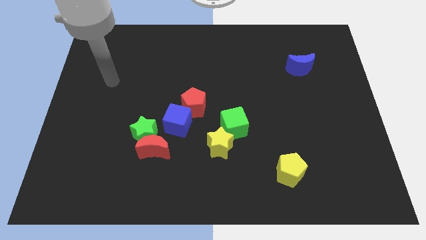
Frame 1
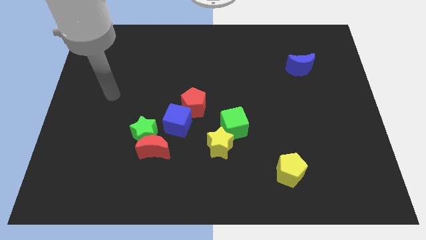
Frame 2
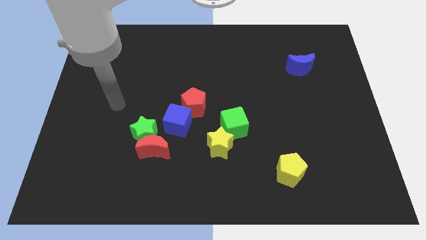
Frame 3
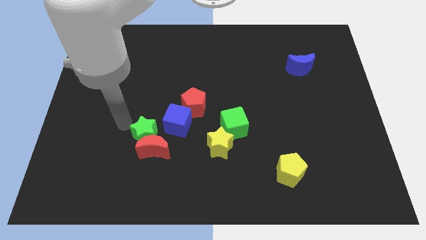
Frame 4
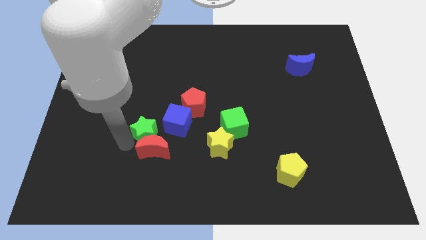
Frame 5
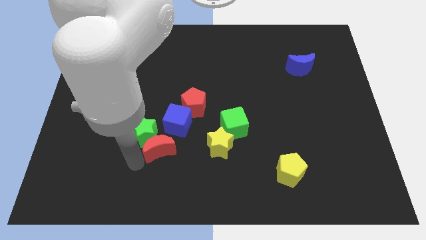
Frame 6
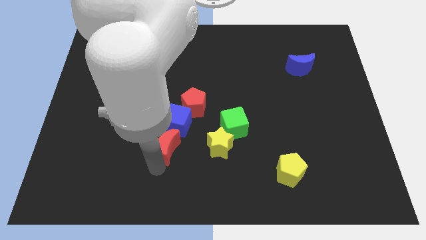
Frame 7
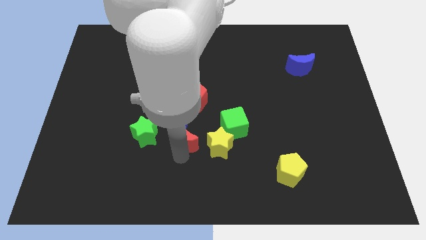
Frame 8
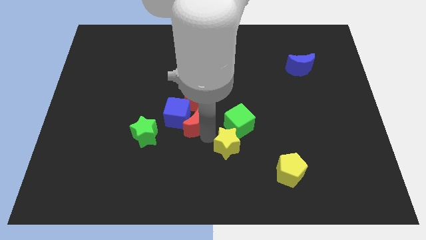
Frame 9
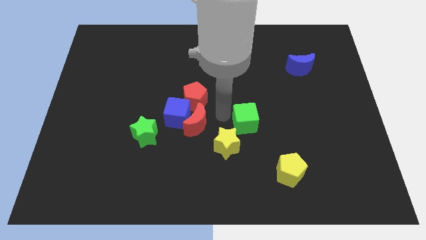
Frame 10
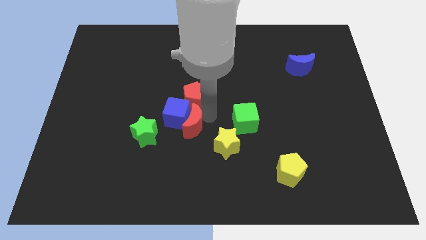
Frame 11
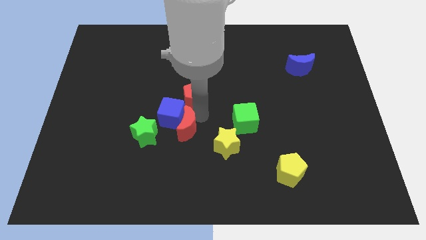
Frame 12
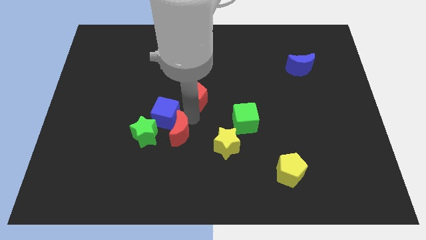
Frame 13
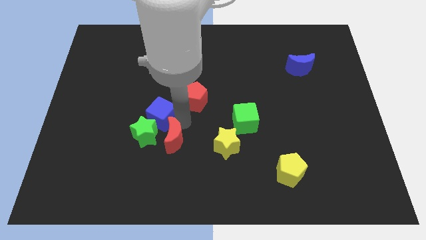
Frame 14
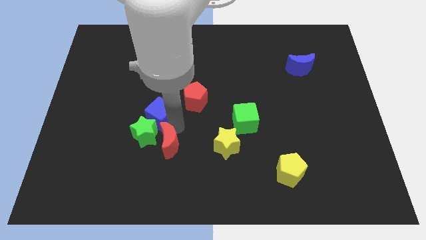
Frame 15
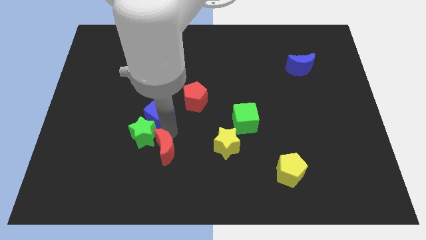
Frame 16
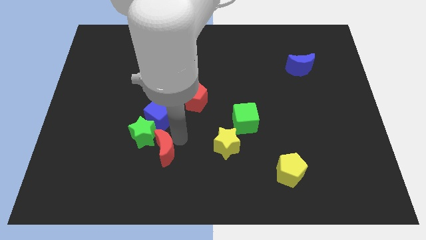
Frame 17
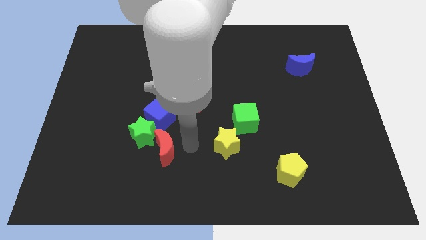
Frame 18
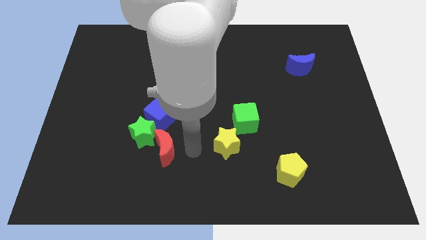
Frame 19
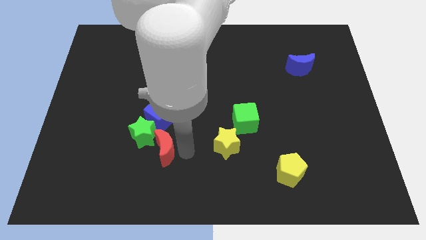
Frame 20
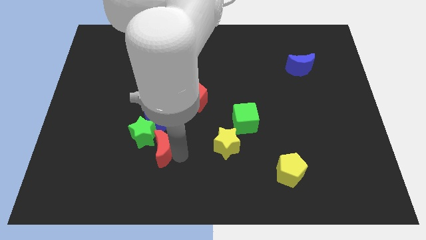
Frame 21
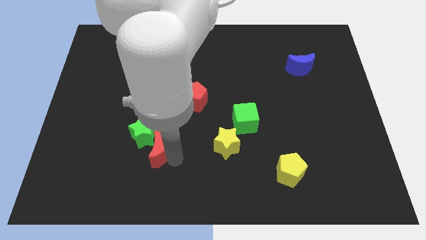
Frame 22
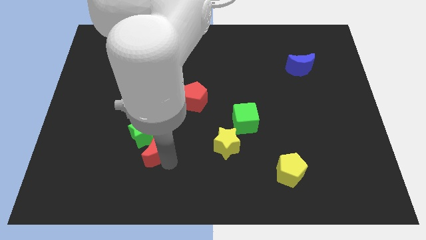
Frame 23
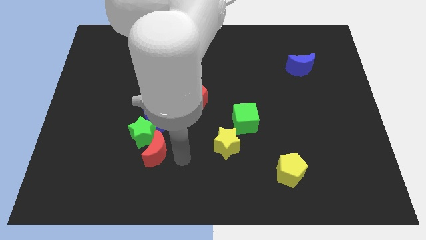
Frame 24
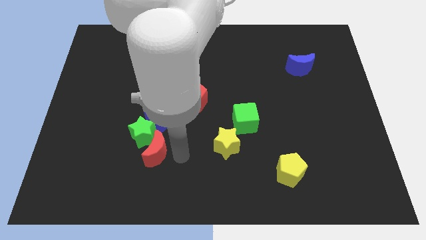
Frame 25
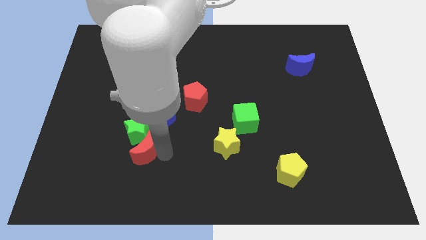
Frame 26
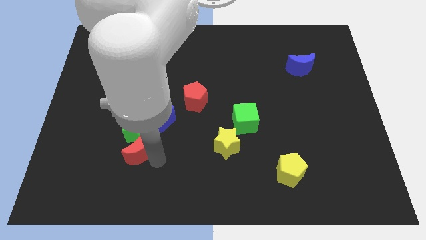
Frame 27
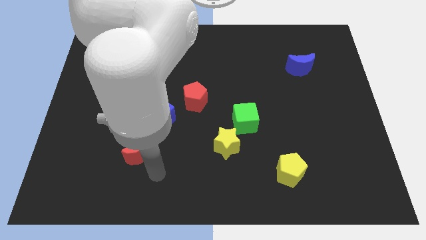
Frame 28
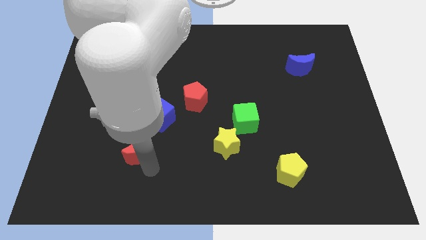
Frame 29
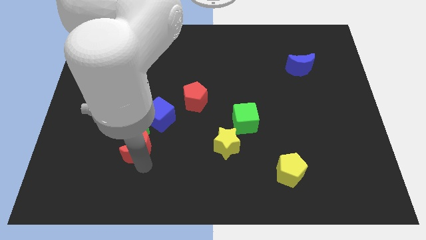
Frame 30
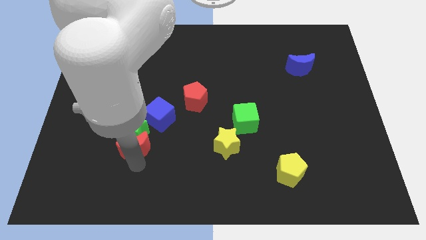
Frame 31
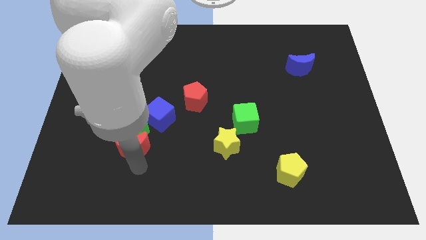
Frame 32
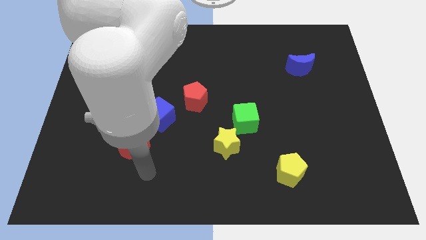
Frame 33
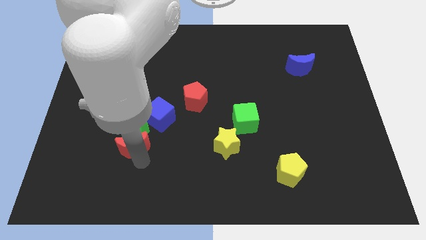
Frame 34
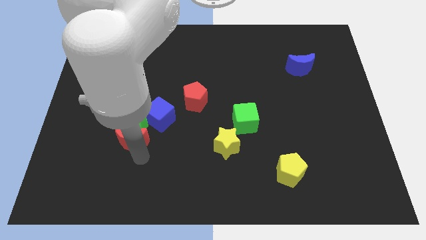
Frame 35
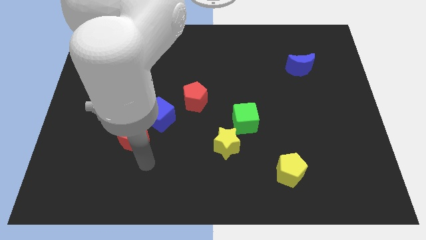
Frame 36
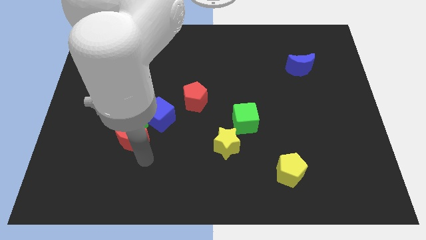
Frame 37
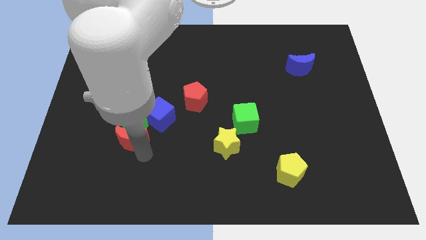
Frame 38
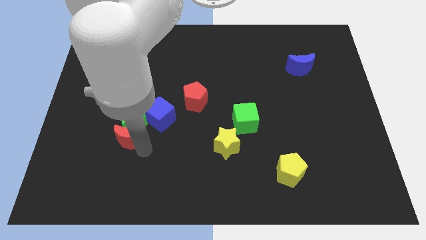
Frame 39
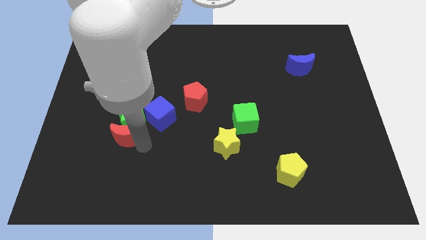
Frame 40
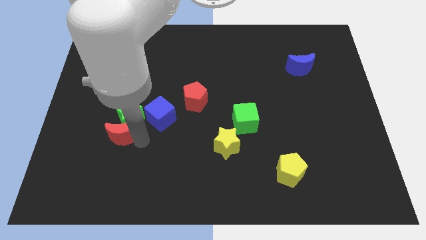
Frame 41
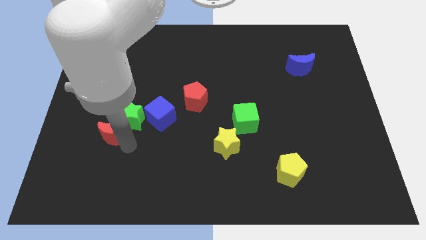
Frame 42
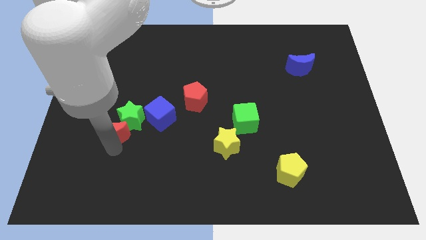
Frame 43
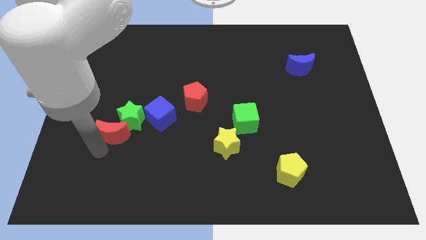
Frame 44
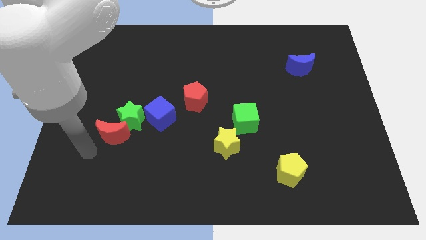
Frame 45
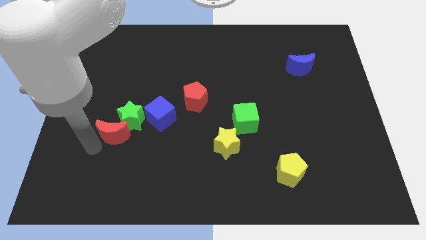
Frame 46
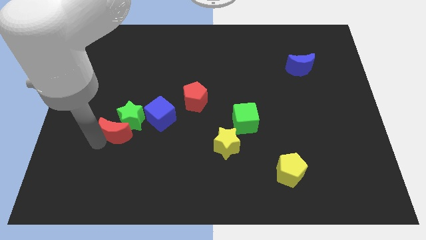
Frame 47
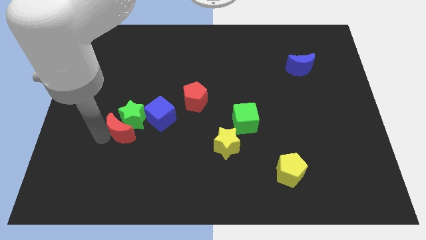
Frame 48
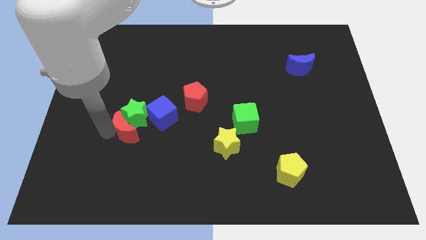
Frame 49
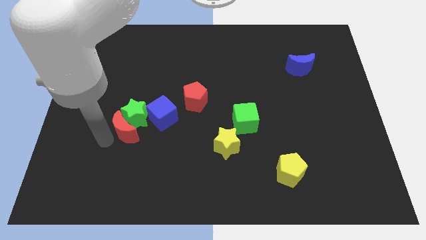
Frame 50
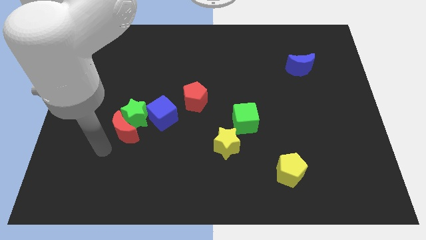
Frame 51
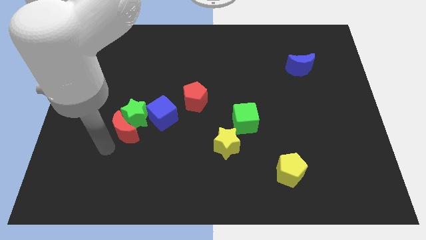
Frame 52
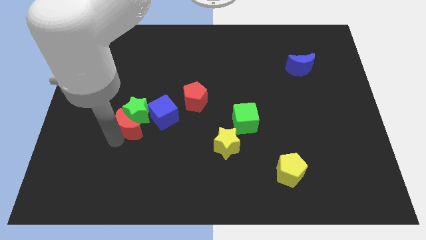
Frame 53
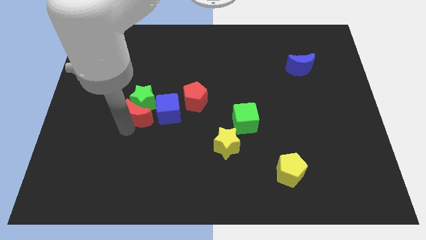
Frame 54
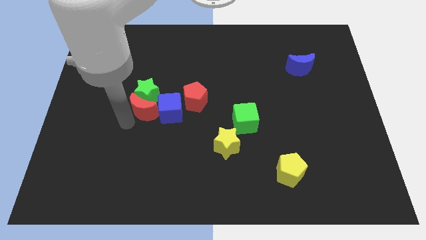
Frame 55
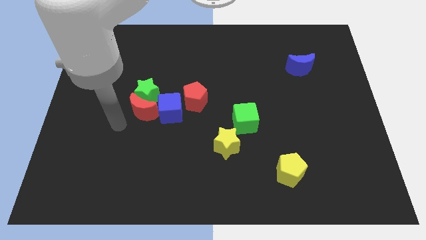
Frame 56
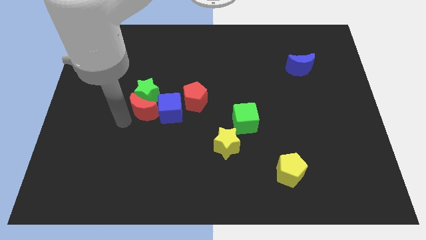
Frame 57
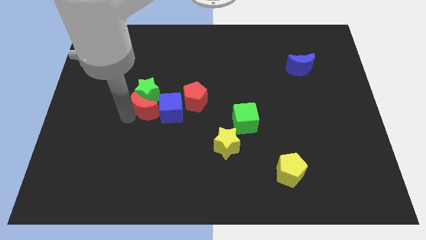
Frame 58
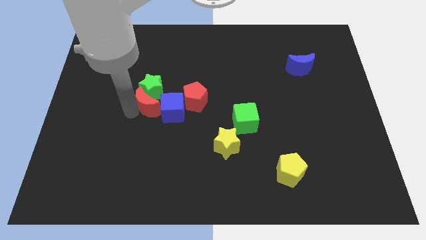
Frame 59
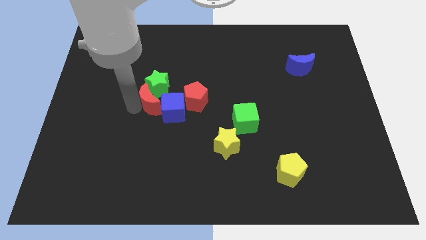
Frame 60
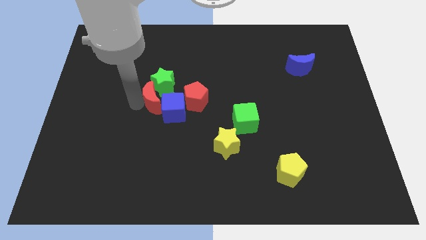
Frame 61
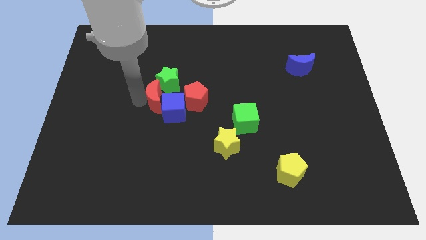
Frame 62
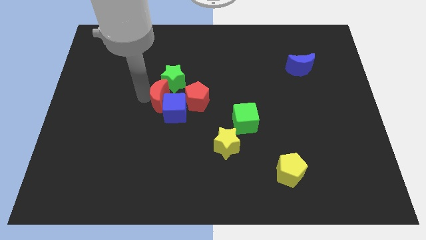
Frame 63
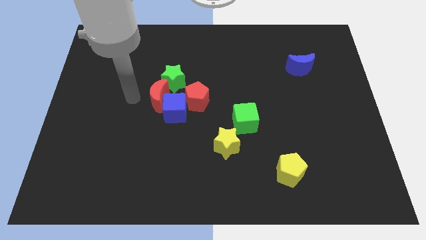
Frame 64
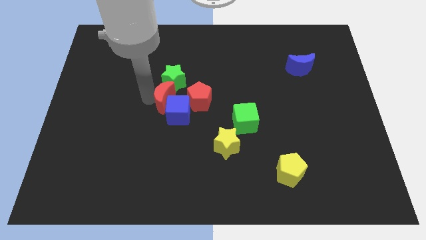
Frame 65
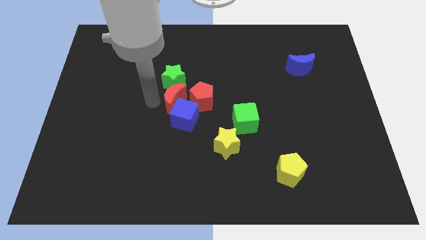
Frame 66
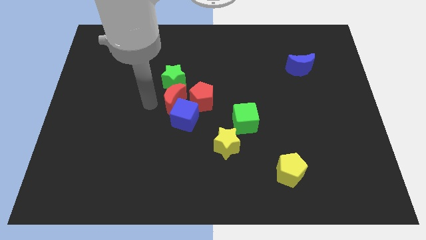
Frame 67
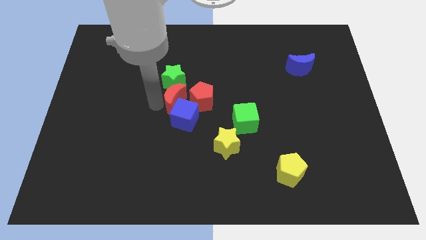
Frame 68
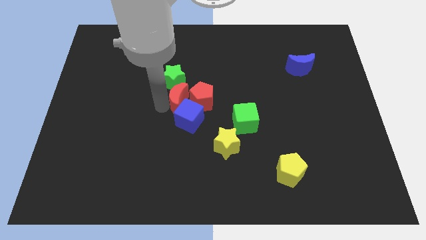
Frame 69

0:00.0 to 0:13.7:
push the red moon towards the red pentagon
